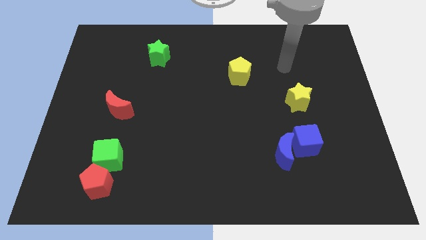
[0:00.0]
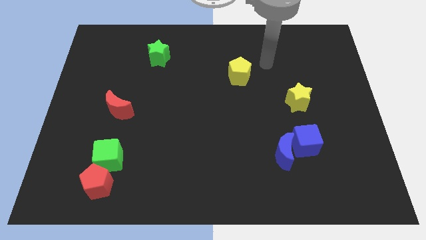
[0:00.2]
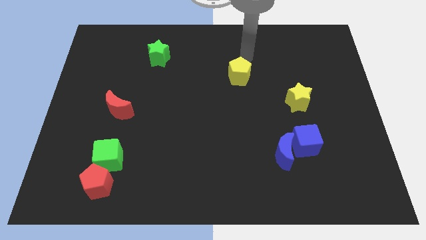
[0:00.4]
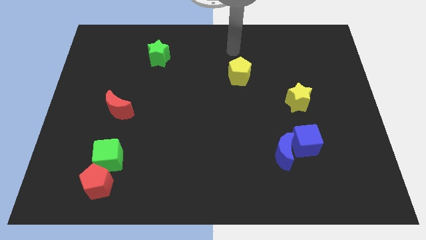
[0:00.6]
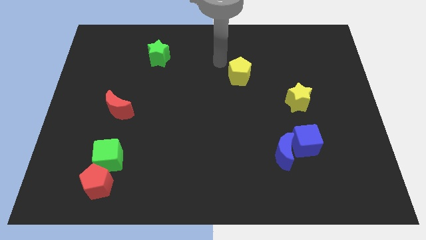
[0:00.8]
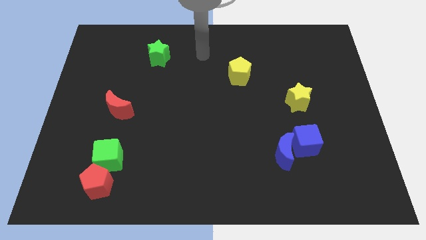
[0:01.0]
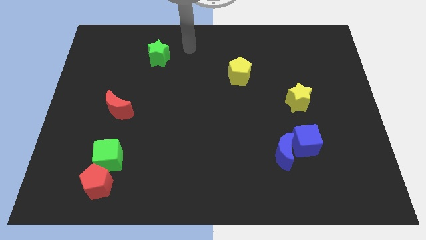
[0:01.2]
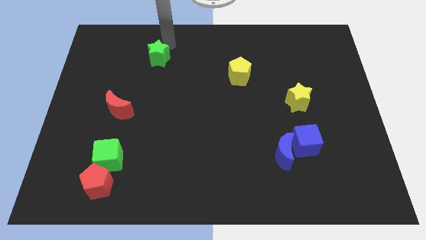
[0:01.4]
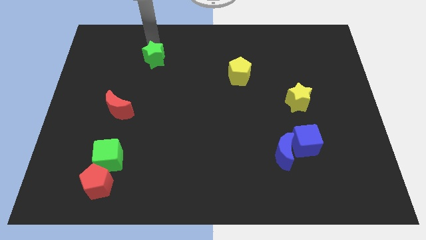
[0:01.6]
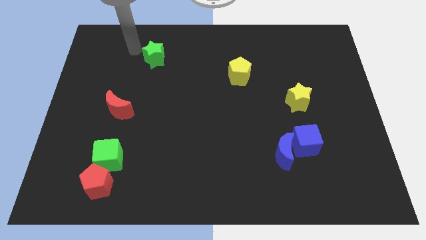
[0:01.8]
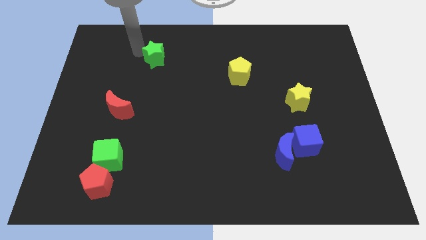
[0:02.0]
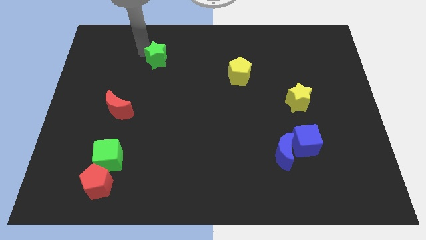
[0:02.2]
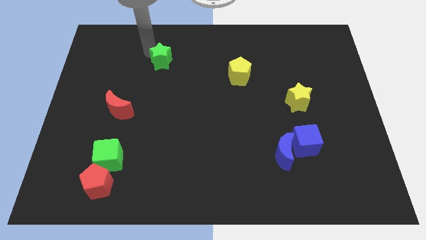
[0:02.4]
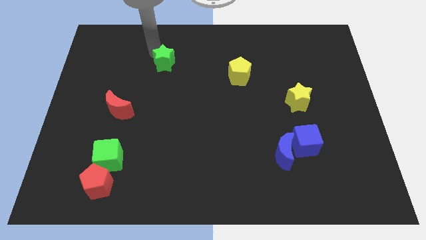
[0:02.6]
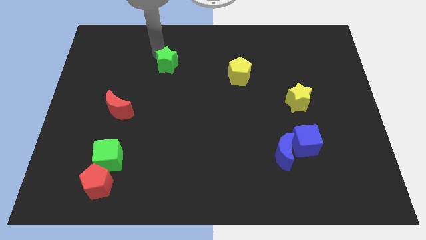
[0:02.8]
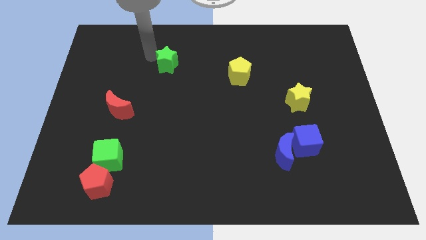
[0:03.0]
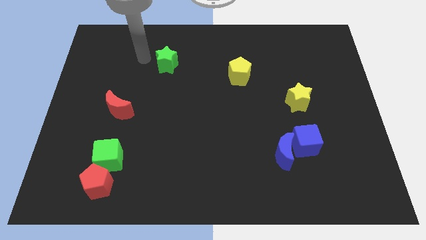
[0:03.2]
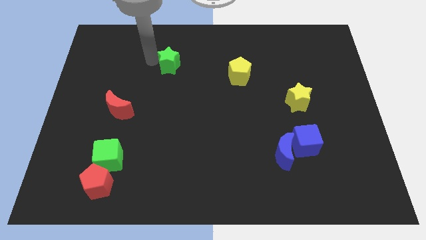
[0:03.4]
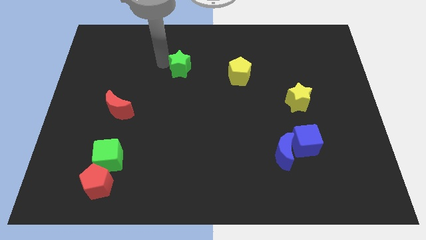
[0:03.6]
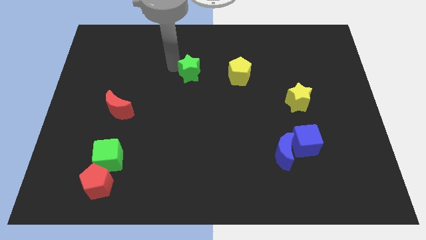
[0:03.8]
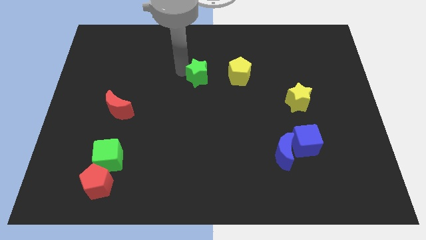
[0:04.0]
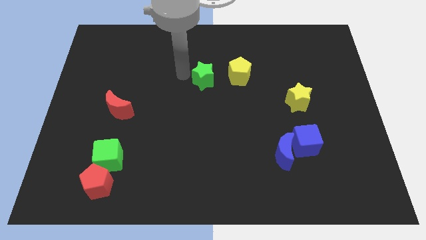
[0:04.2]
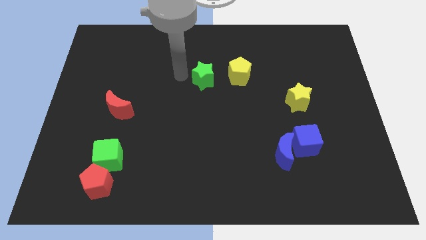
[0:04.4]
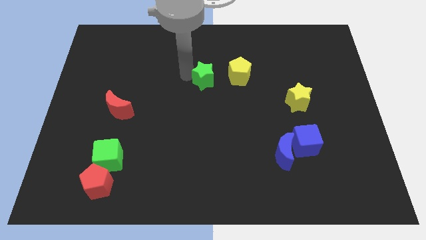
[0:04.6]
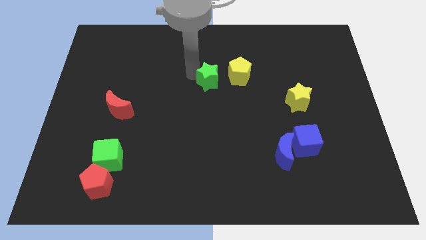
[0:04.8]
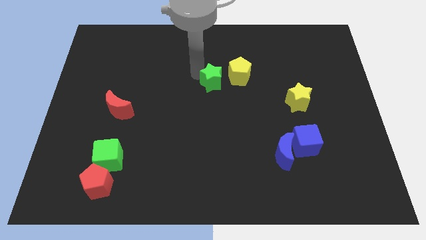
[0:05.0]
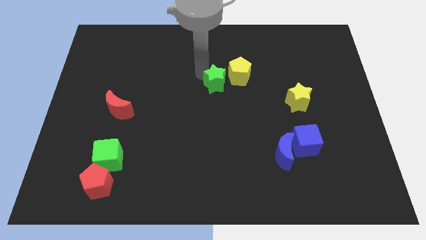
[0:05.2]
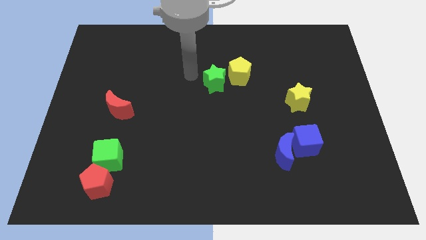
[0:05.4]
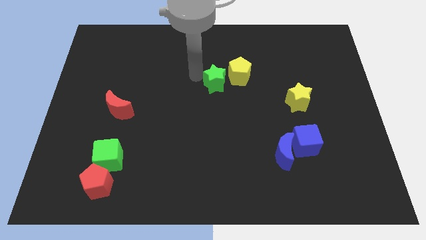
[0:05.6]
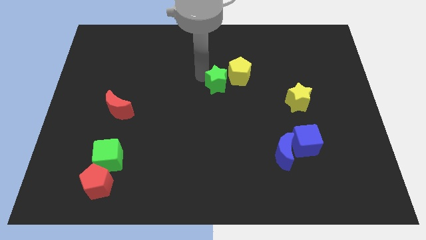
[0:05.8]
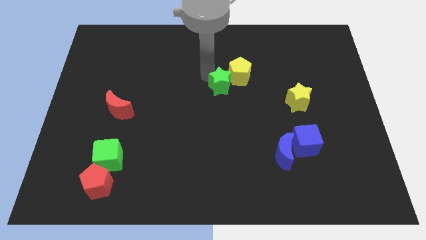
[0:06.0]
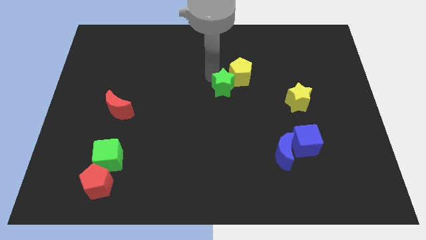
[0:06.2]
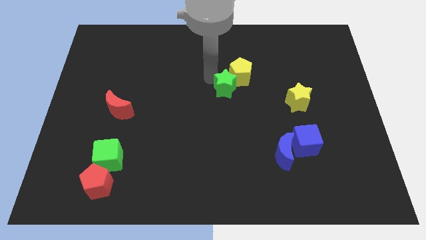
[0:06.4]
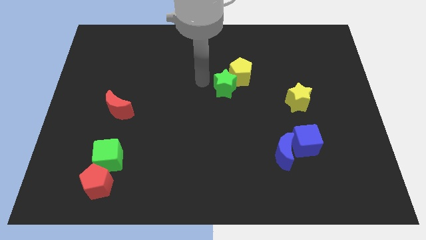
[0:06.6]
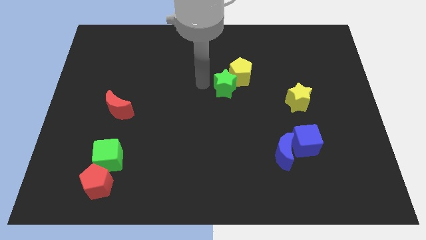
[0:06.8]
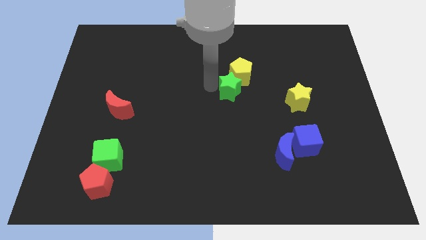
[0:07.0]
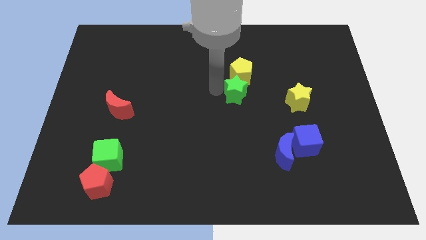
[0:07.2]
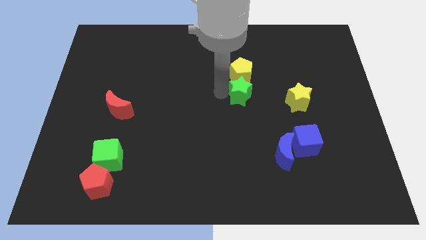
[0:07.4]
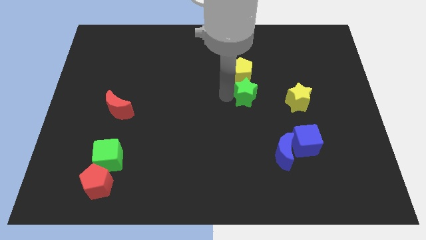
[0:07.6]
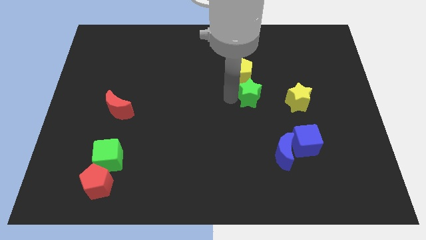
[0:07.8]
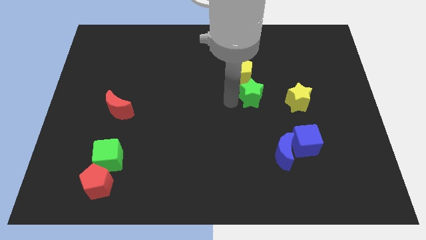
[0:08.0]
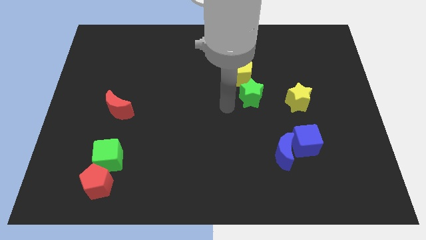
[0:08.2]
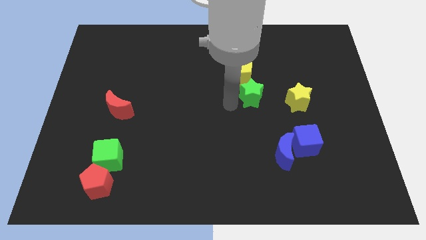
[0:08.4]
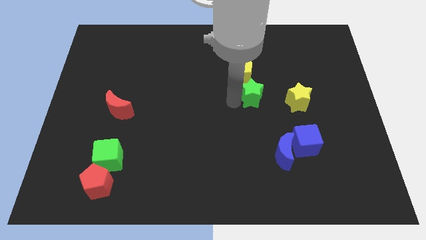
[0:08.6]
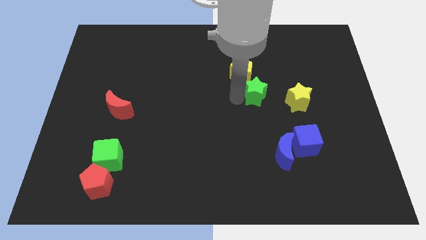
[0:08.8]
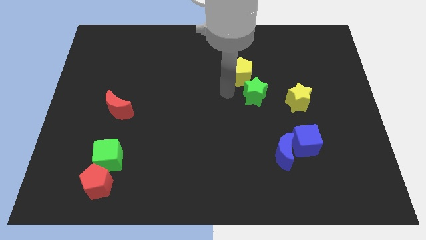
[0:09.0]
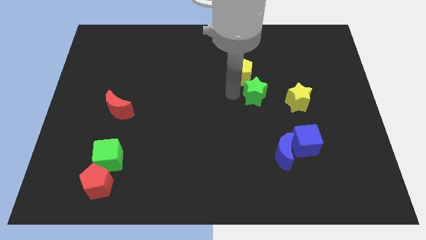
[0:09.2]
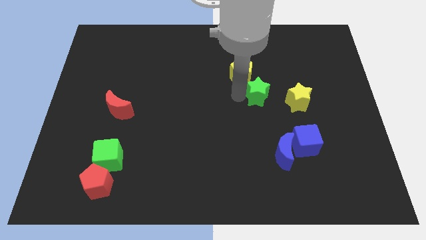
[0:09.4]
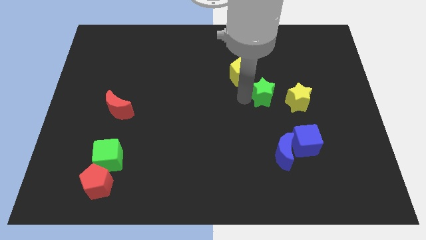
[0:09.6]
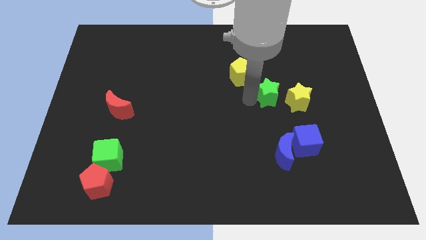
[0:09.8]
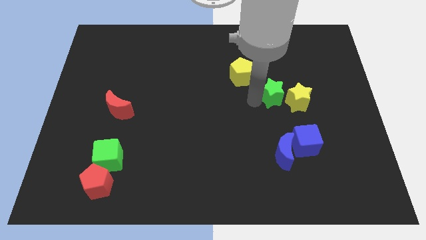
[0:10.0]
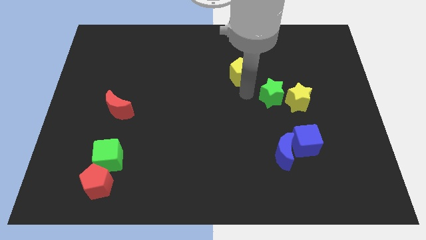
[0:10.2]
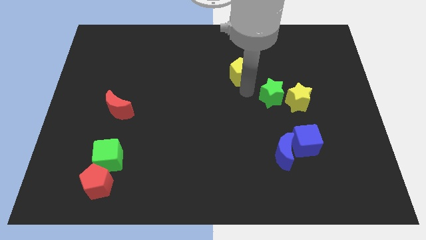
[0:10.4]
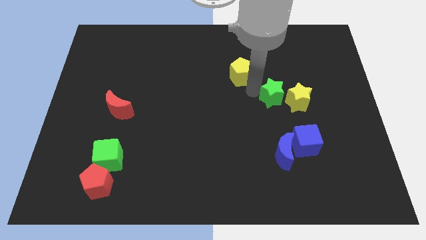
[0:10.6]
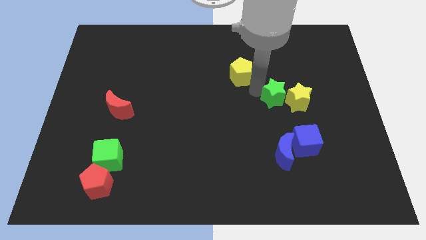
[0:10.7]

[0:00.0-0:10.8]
slide the green star close to the yellow star

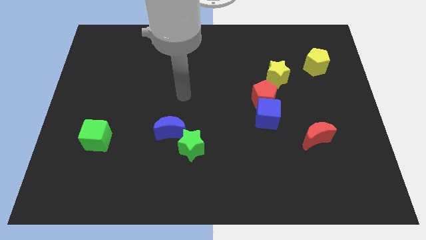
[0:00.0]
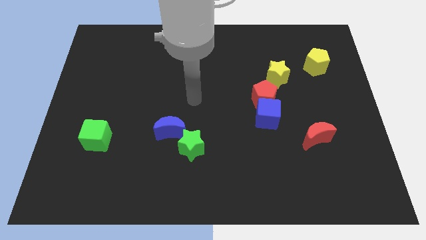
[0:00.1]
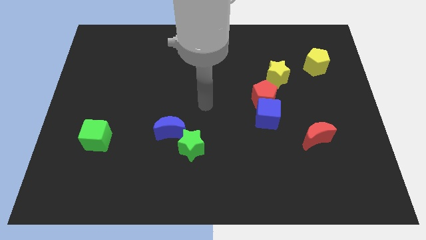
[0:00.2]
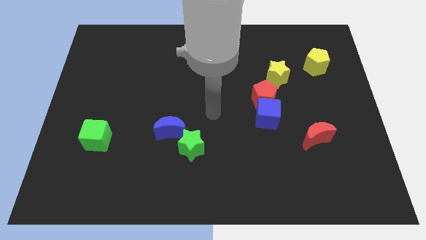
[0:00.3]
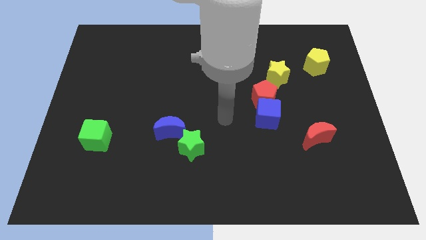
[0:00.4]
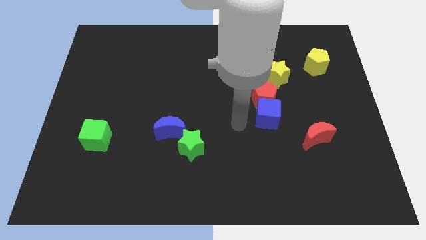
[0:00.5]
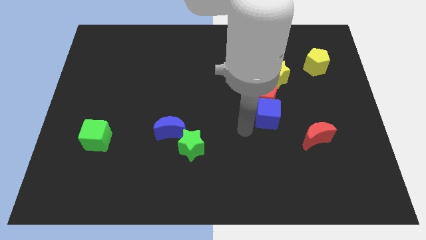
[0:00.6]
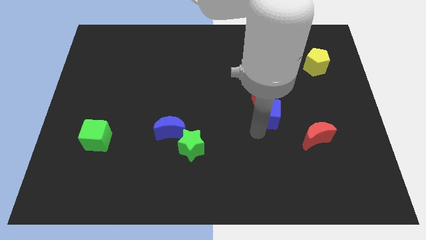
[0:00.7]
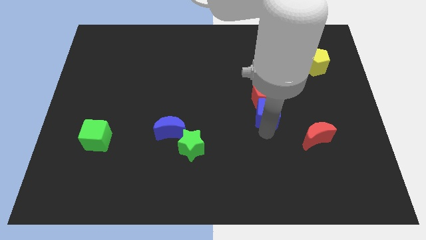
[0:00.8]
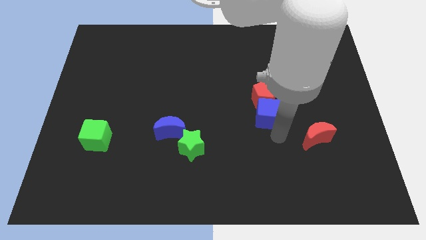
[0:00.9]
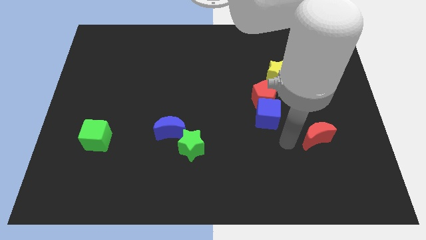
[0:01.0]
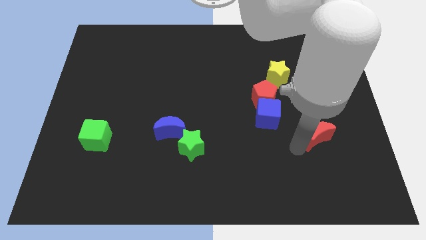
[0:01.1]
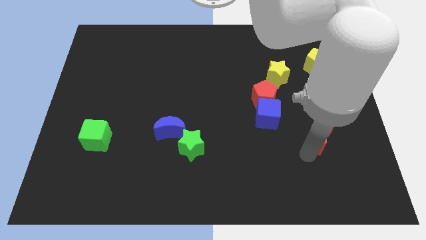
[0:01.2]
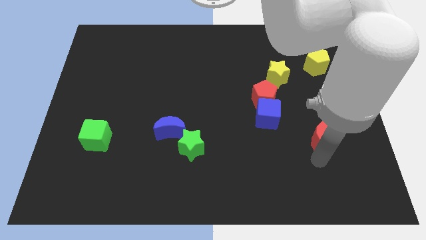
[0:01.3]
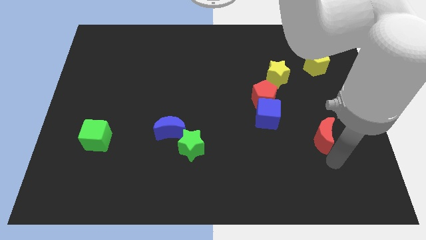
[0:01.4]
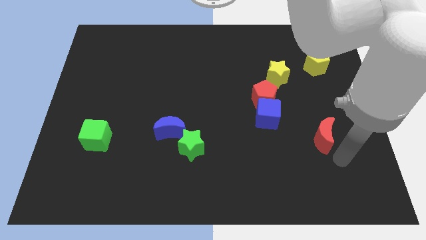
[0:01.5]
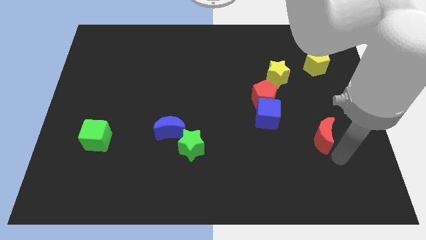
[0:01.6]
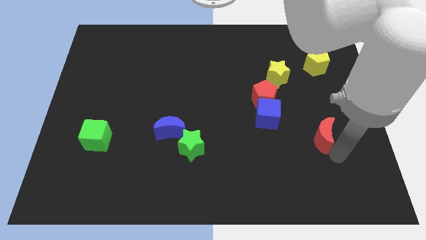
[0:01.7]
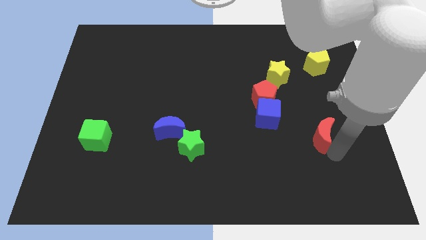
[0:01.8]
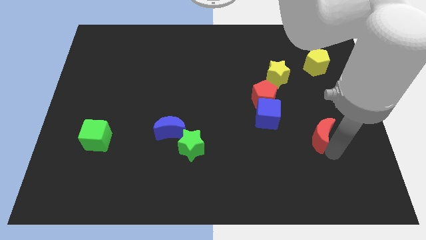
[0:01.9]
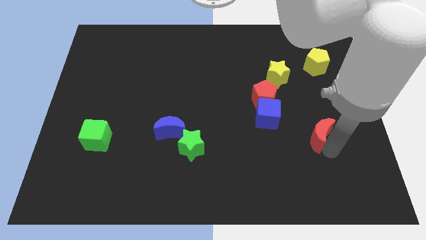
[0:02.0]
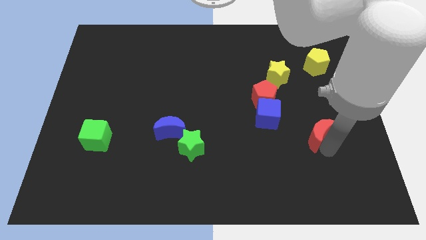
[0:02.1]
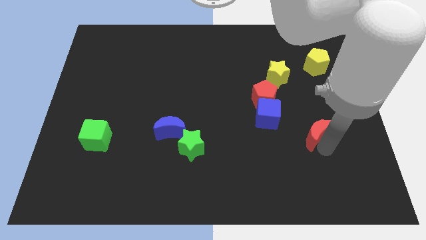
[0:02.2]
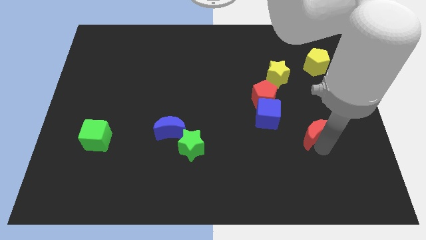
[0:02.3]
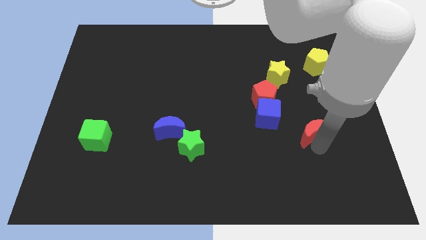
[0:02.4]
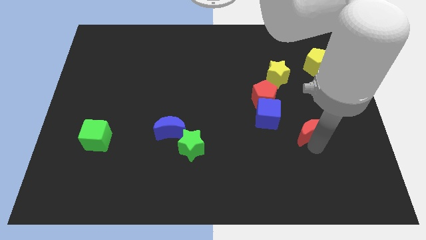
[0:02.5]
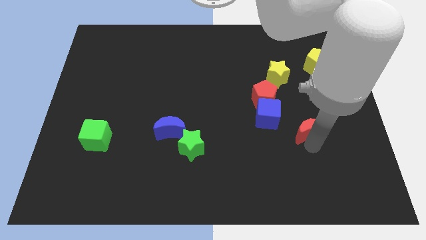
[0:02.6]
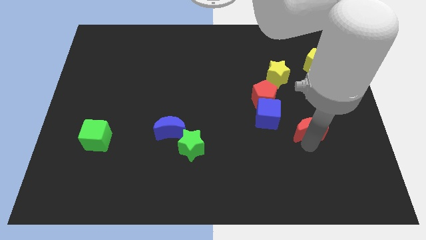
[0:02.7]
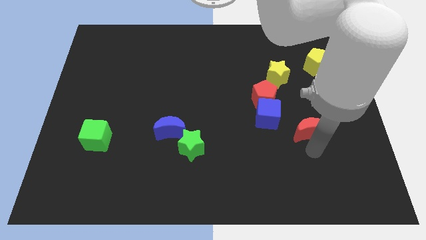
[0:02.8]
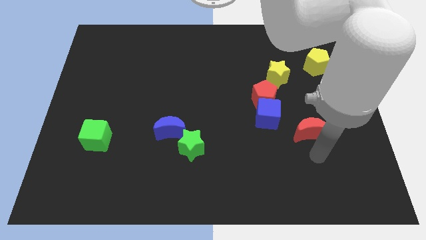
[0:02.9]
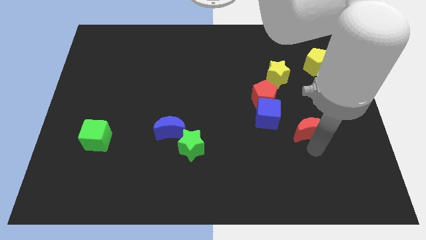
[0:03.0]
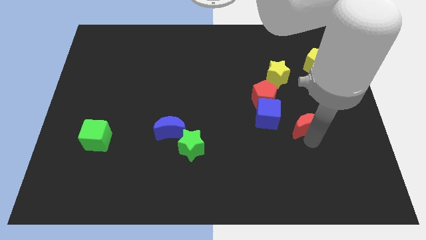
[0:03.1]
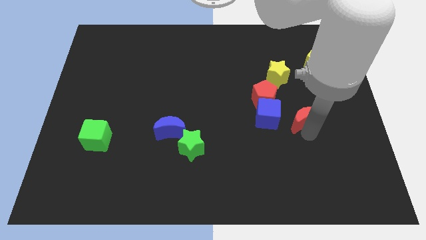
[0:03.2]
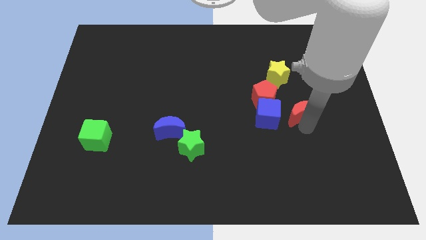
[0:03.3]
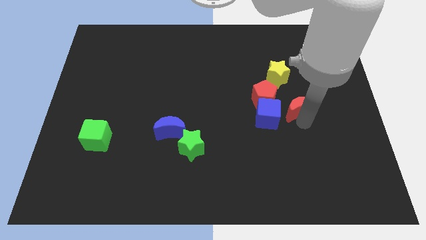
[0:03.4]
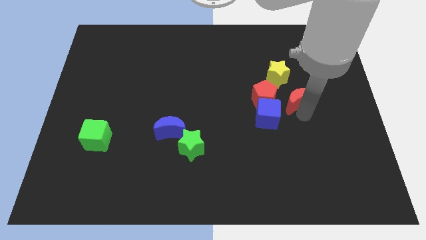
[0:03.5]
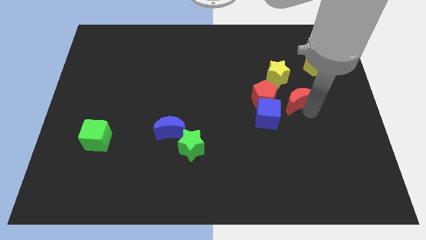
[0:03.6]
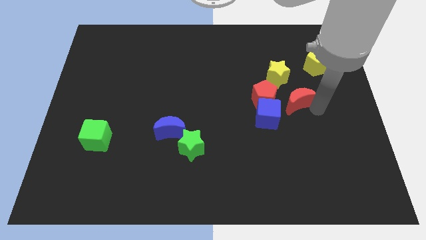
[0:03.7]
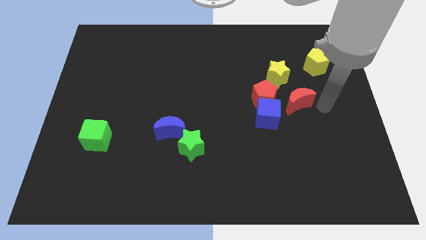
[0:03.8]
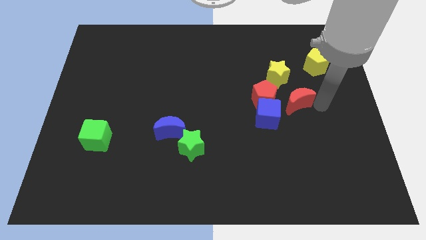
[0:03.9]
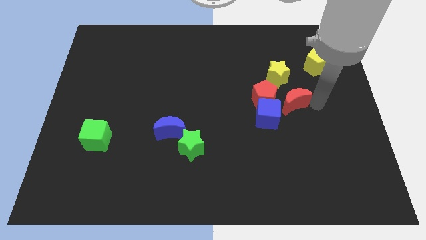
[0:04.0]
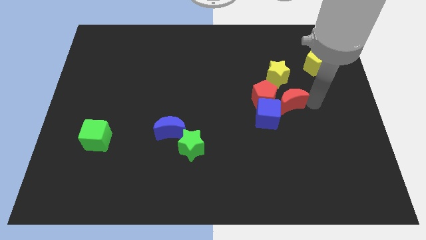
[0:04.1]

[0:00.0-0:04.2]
push the red moon towards the red pentagon
